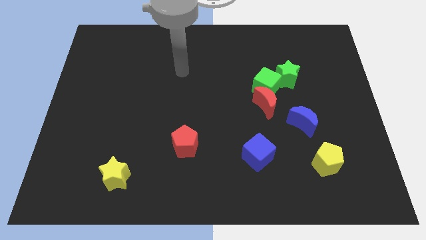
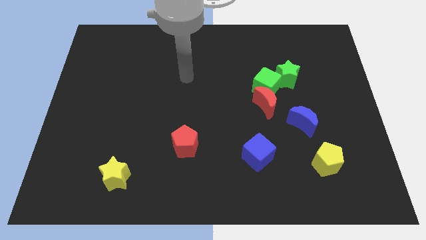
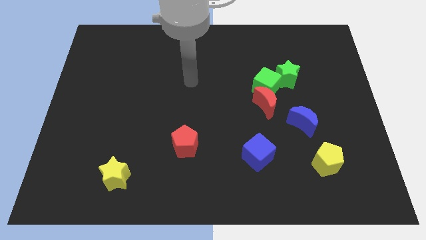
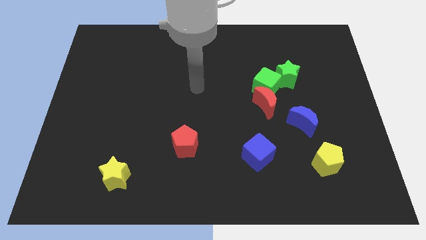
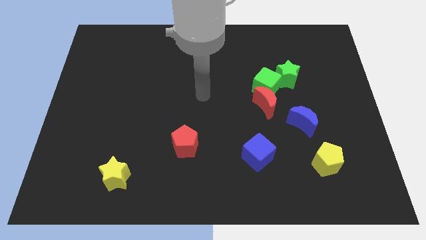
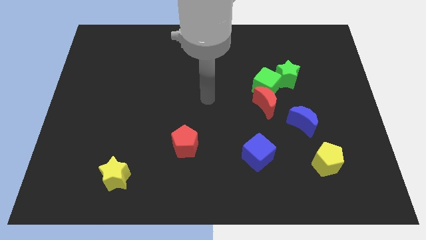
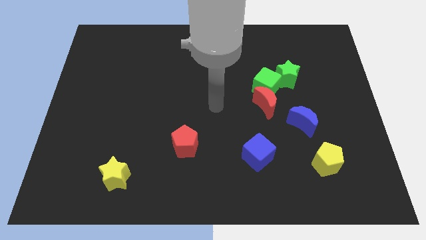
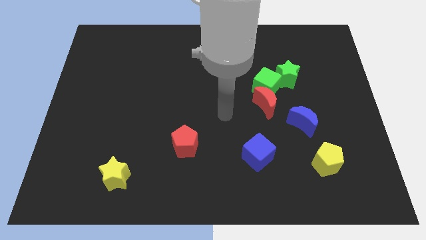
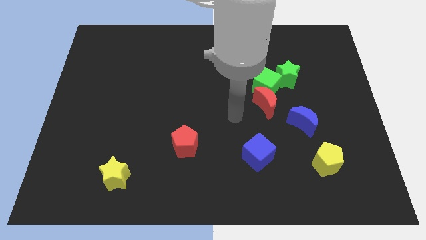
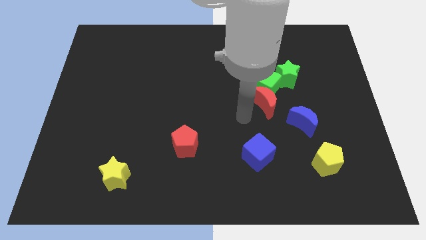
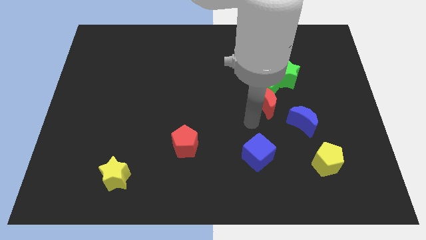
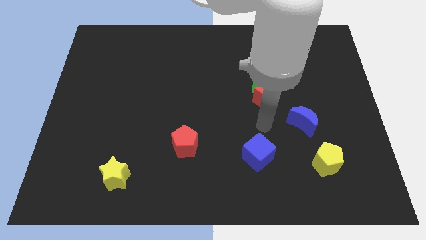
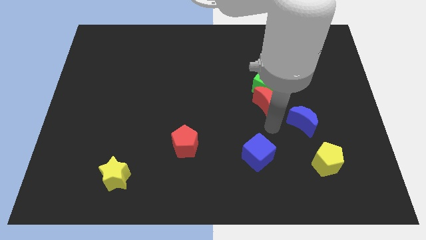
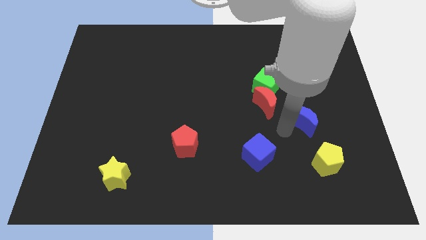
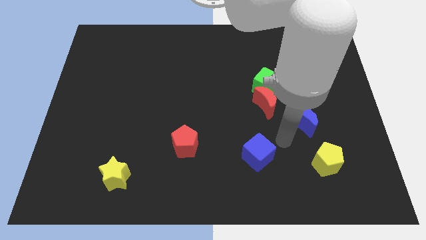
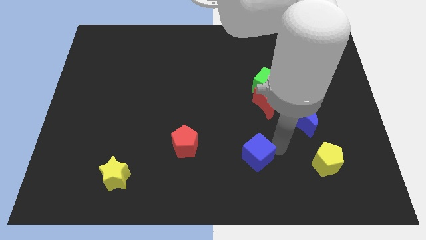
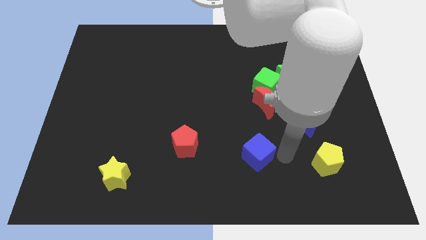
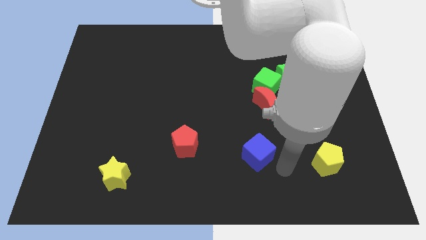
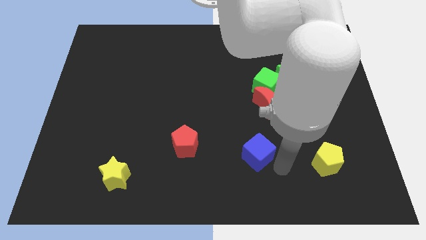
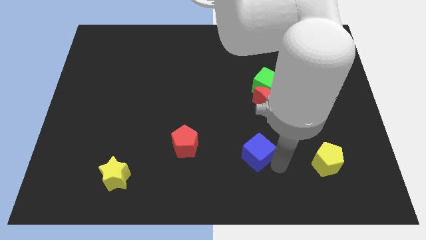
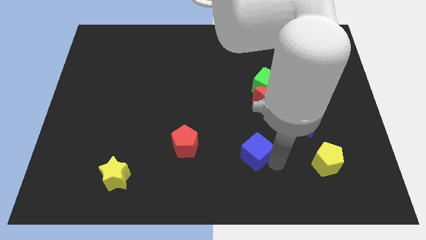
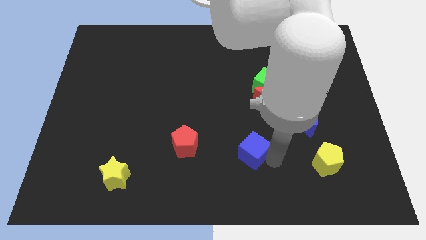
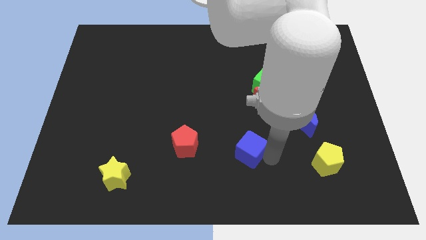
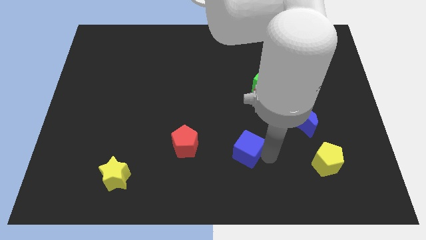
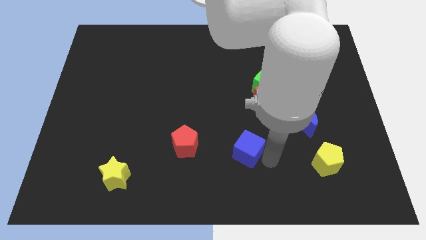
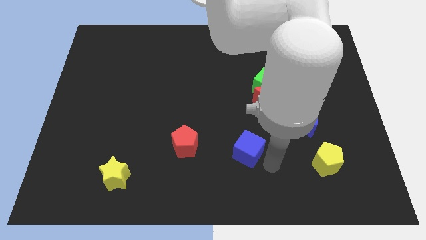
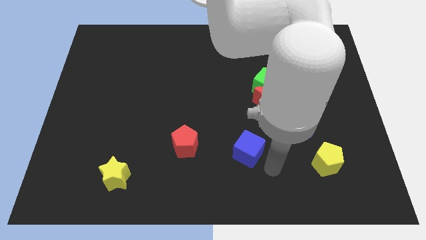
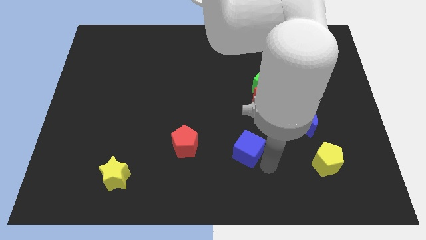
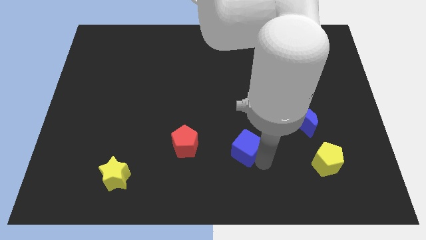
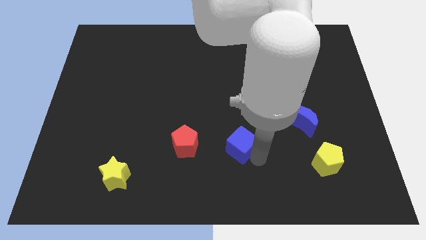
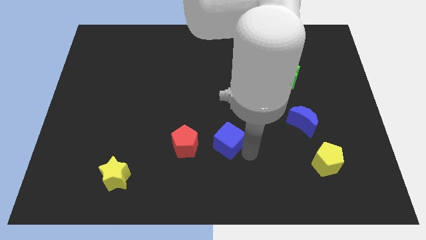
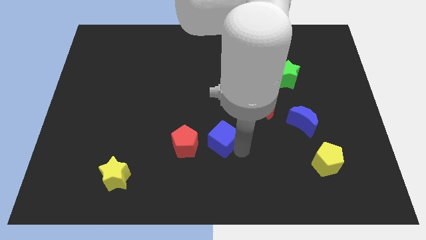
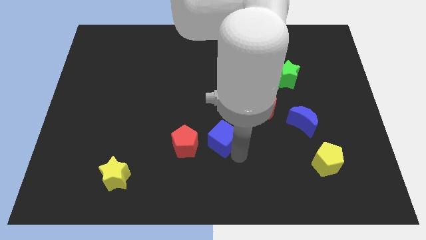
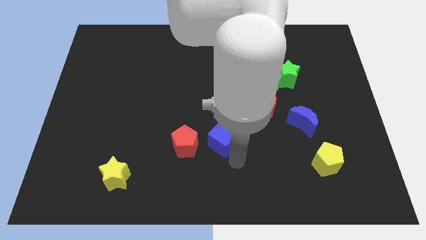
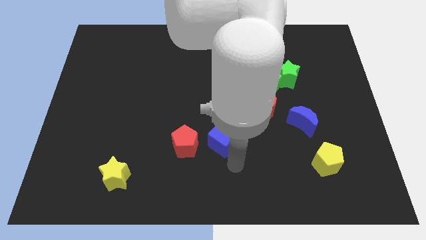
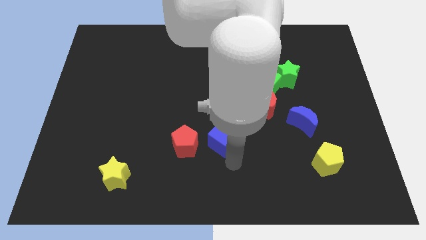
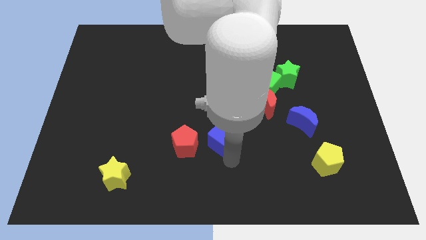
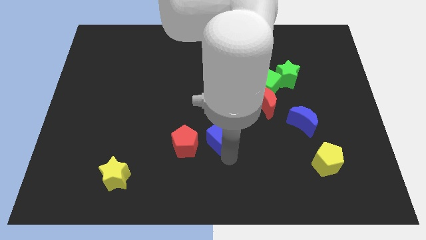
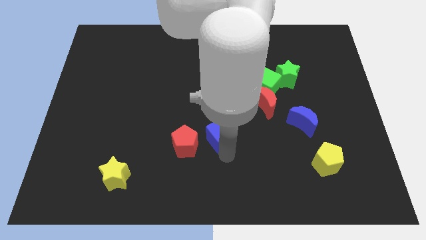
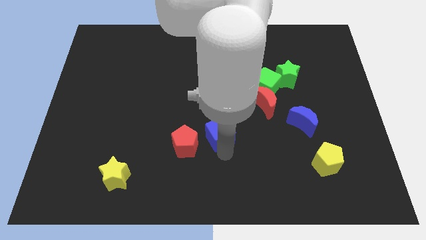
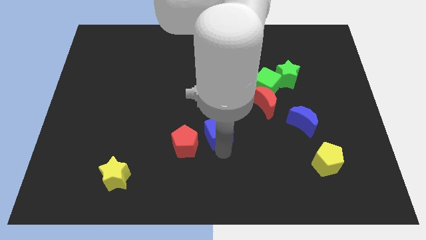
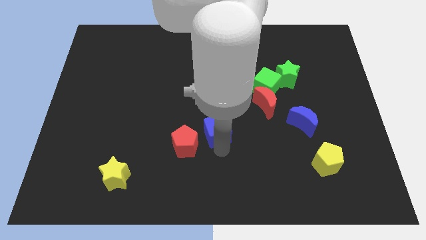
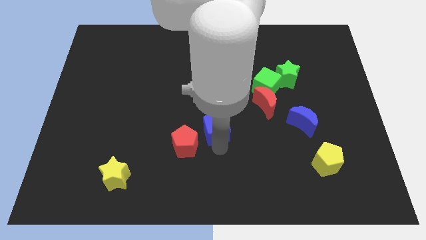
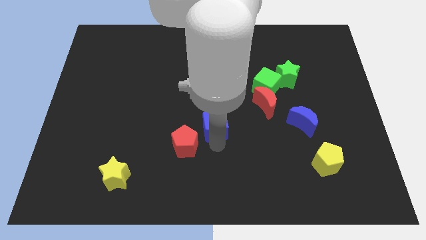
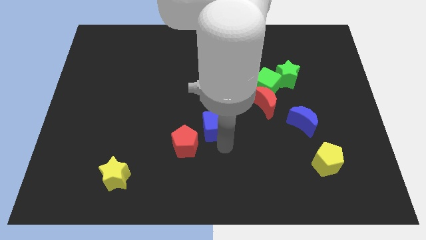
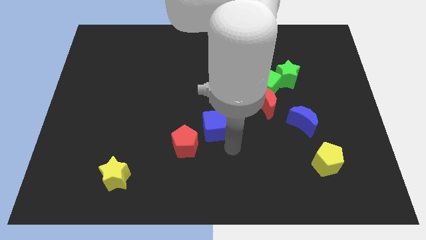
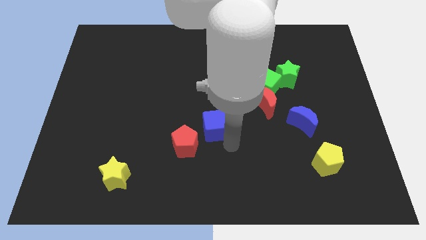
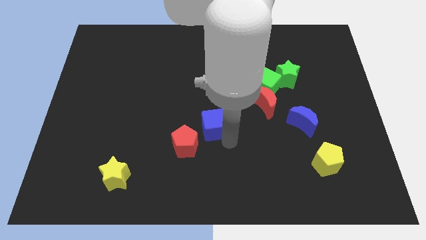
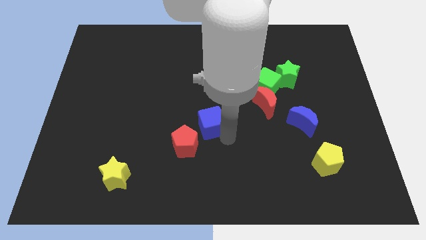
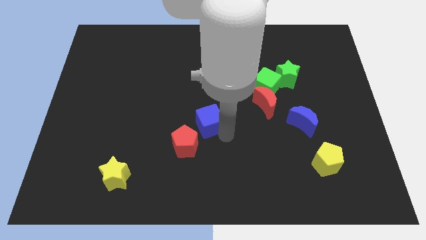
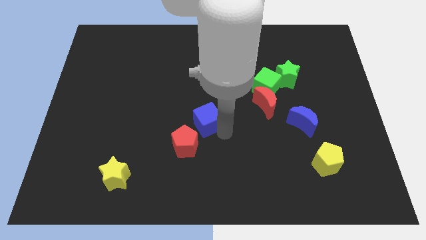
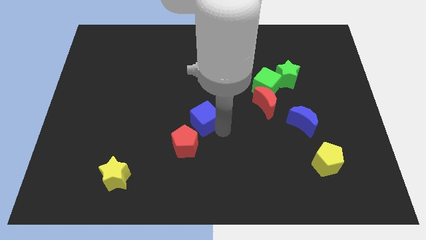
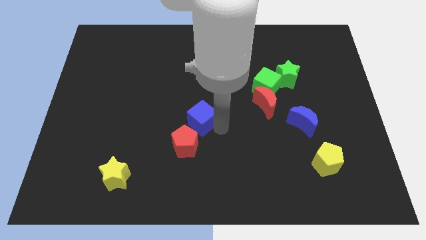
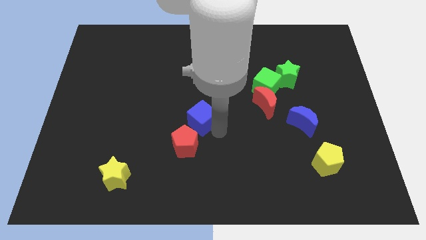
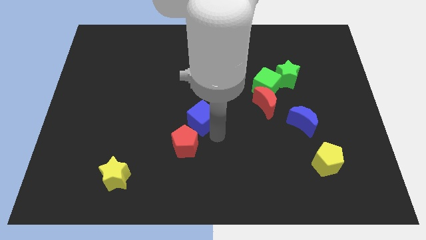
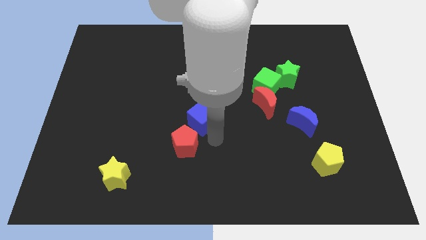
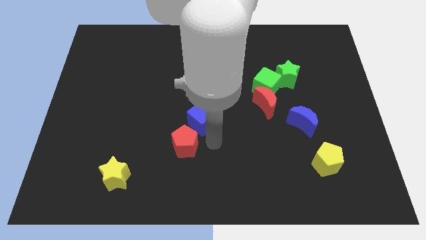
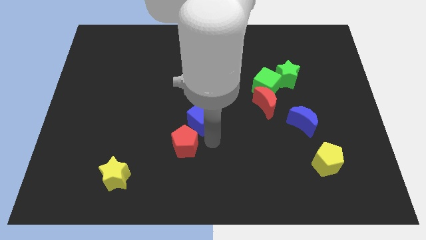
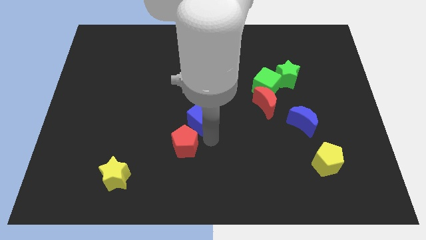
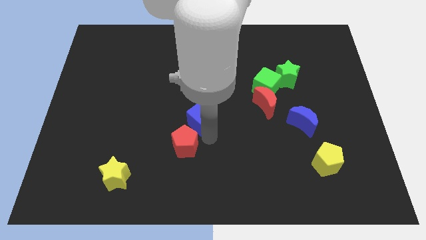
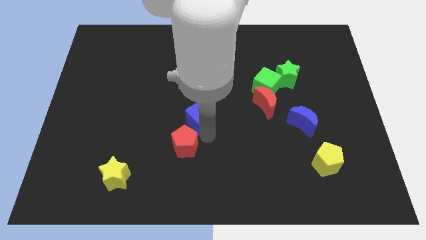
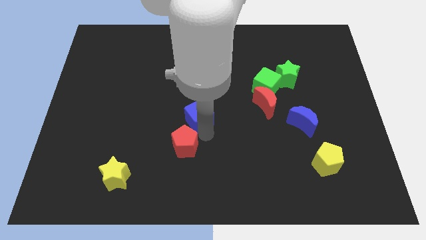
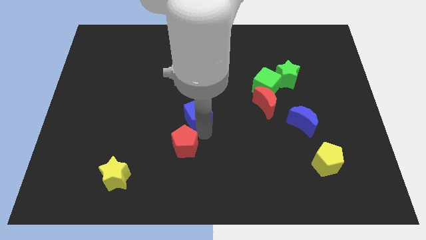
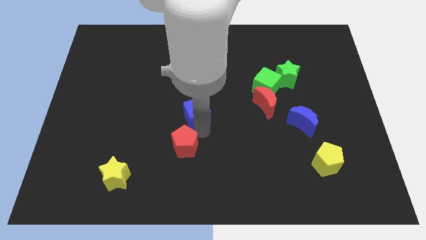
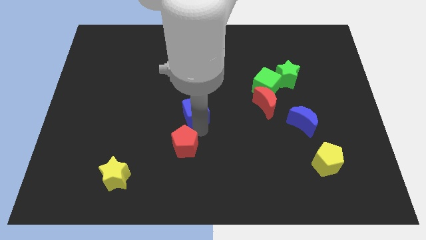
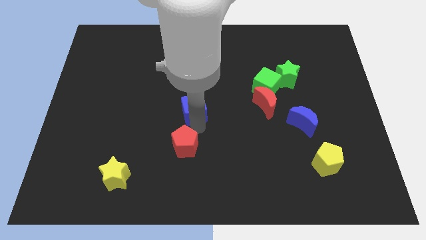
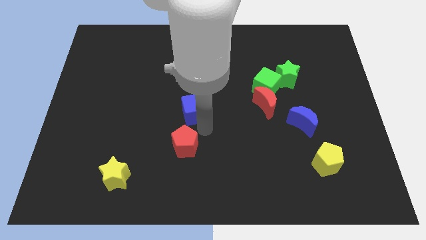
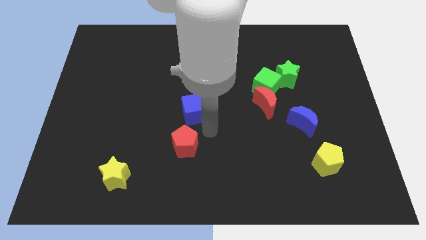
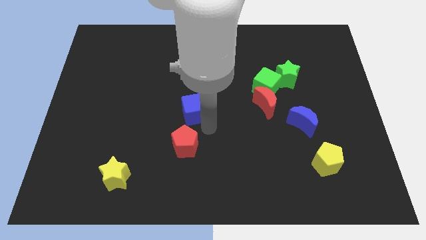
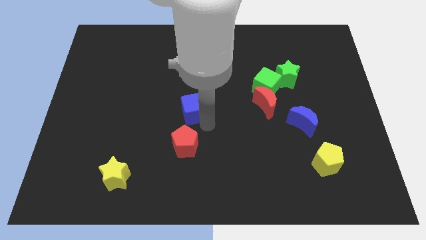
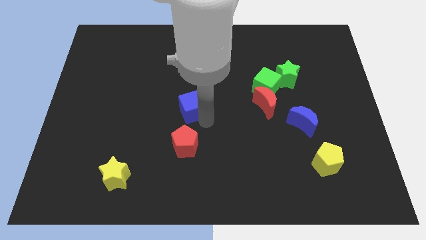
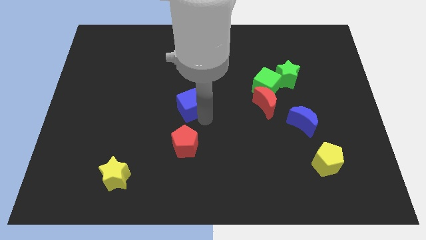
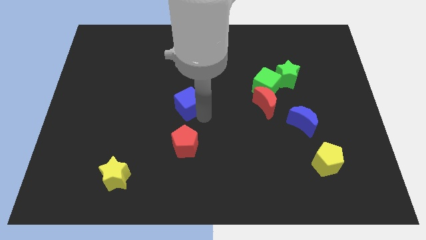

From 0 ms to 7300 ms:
move the blue cube diagonally up and left

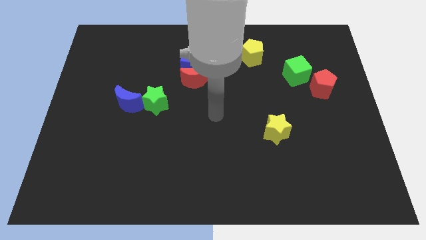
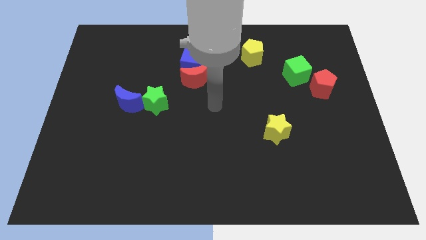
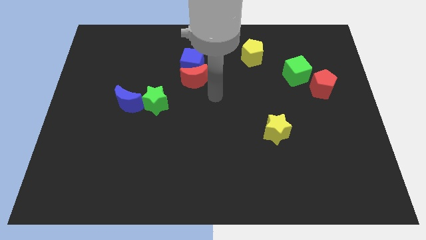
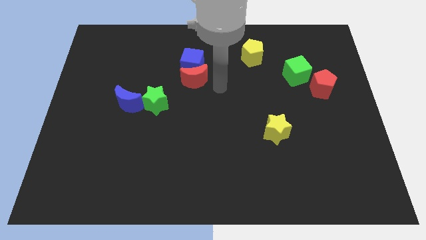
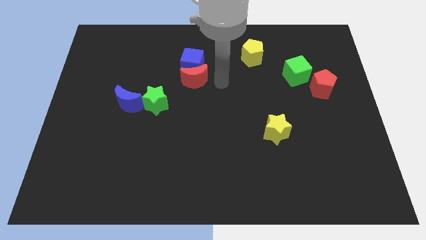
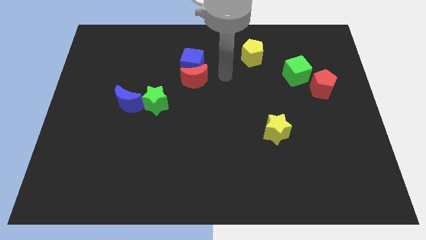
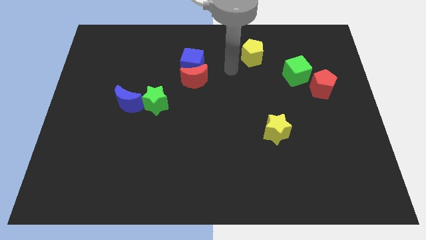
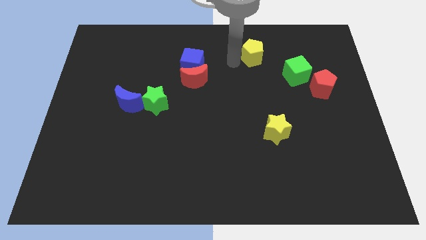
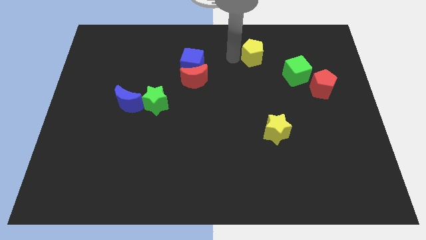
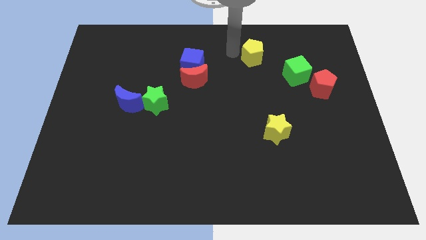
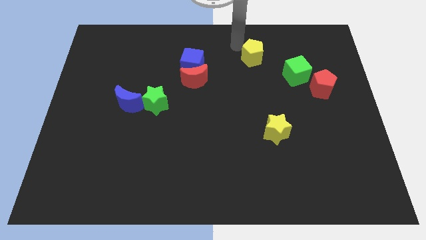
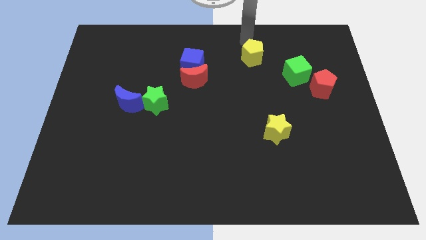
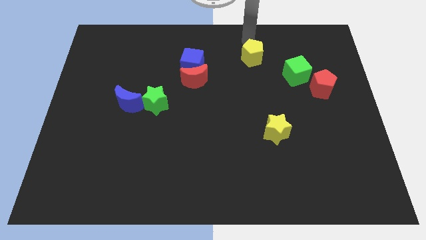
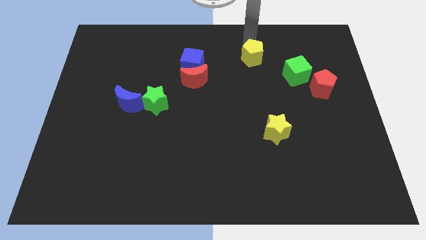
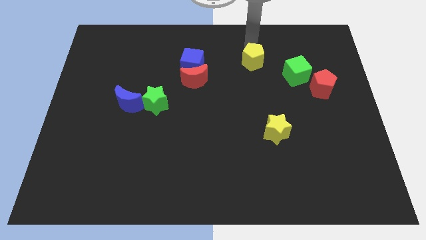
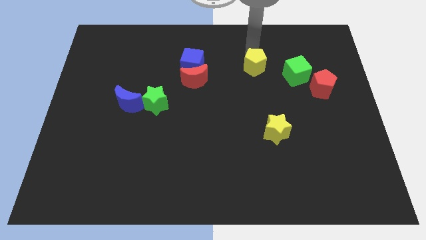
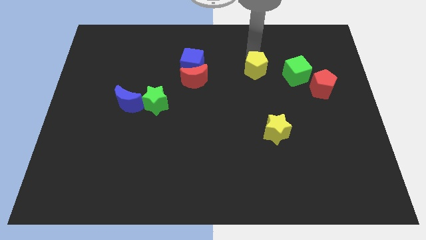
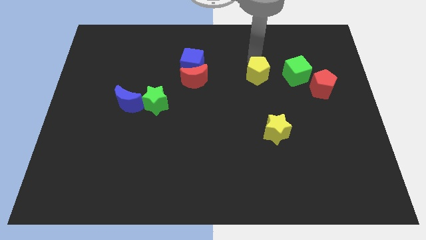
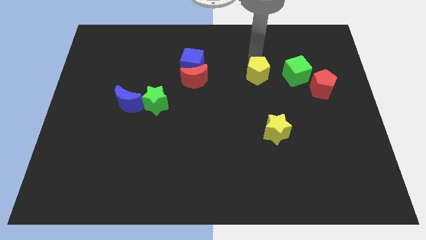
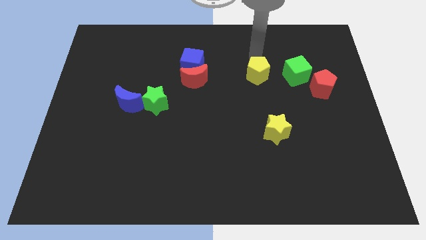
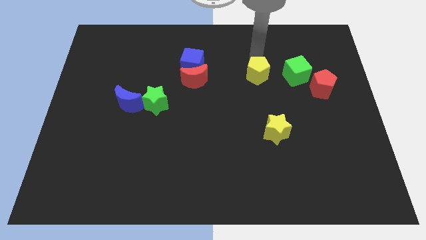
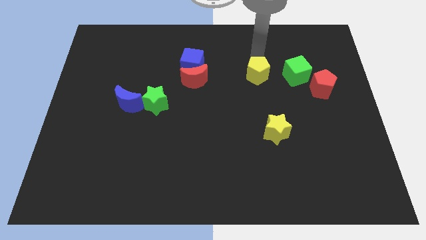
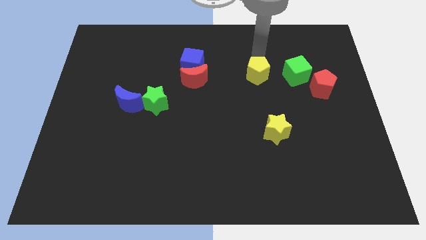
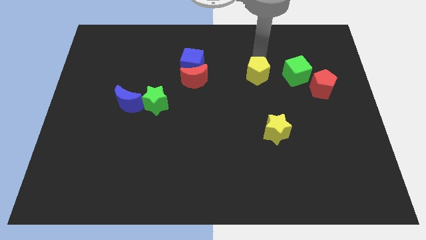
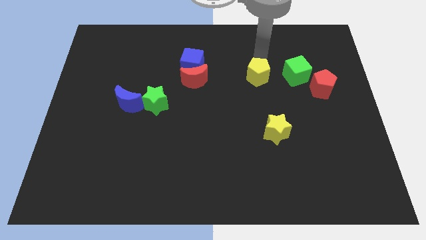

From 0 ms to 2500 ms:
slightly slide the yellow pentagon down
